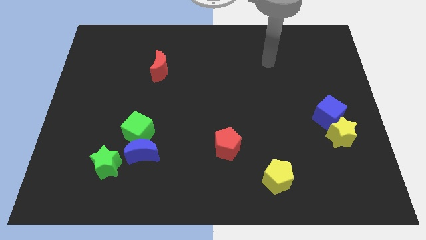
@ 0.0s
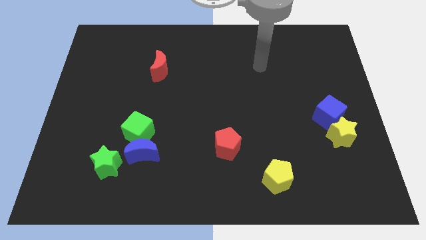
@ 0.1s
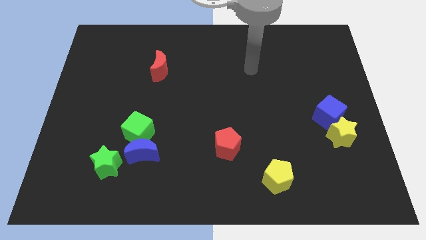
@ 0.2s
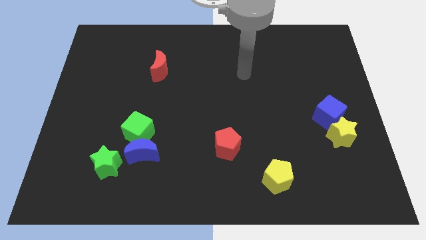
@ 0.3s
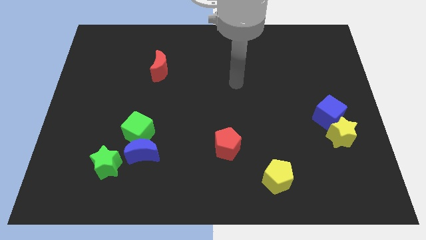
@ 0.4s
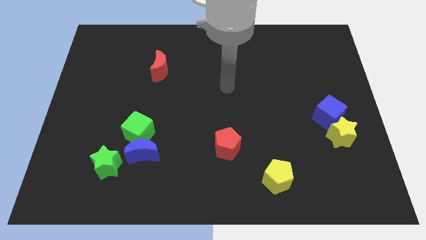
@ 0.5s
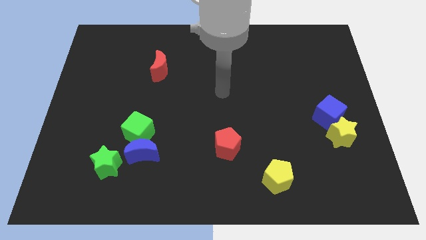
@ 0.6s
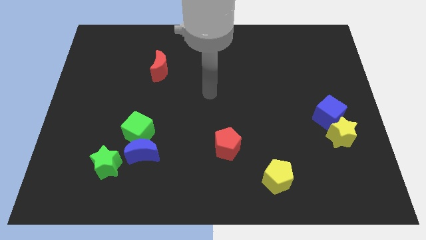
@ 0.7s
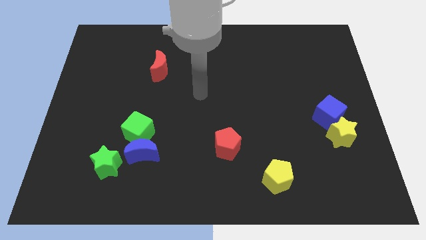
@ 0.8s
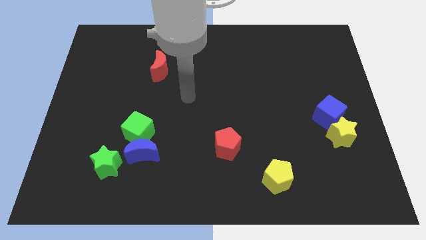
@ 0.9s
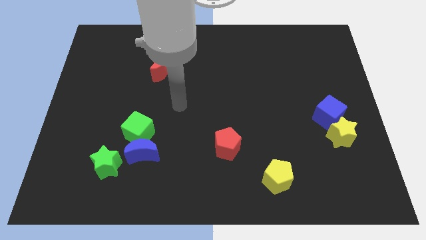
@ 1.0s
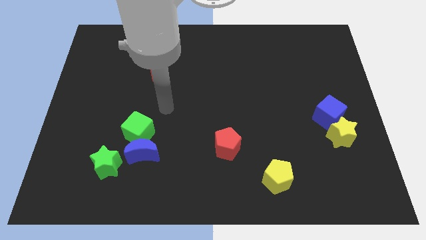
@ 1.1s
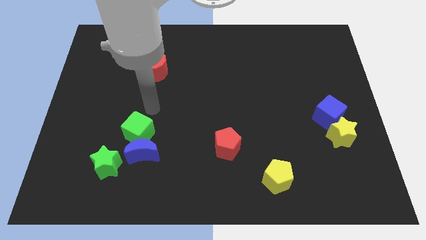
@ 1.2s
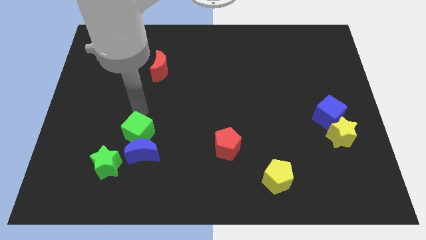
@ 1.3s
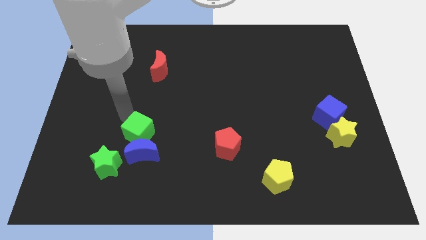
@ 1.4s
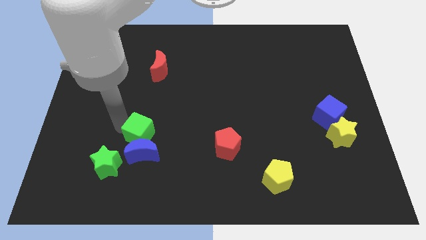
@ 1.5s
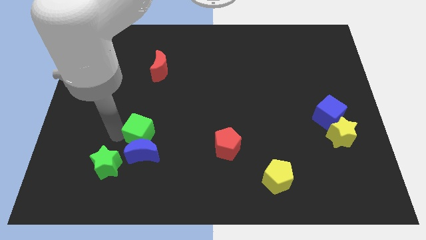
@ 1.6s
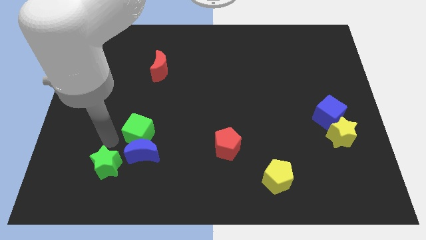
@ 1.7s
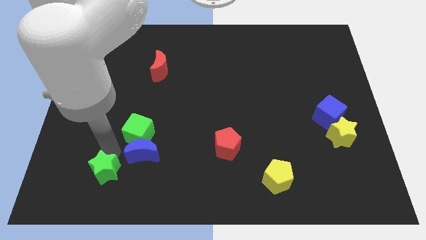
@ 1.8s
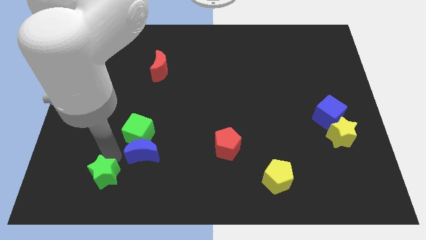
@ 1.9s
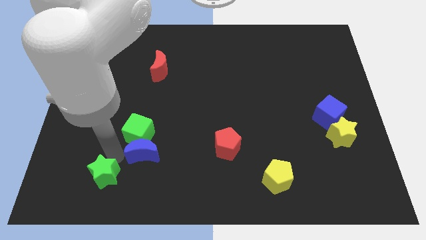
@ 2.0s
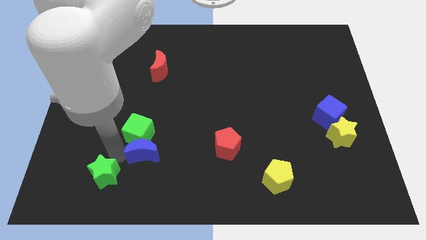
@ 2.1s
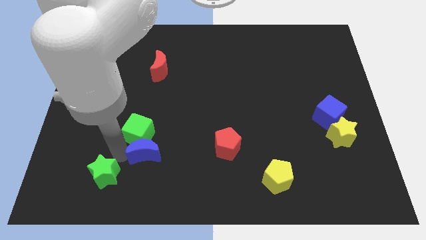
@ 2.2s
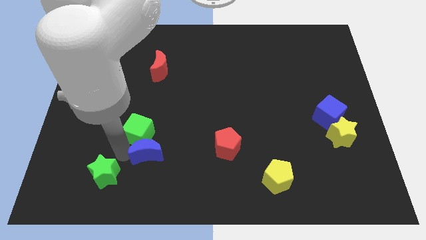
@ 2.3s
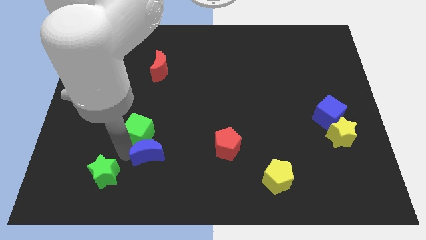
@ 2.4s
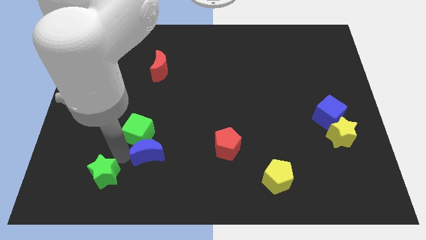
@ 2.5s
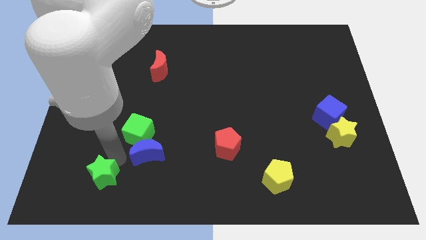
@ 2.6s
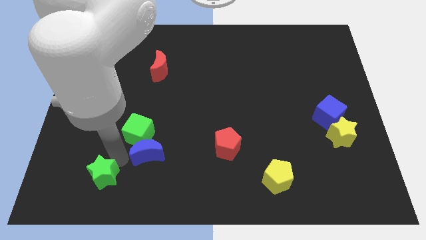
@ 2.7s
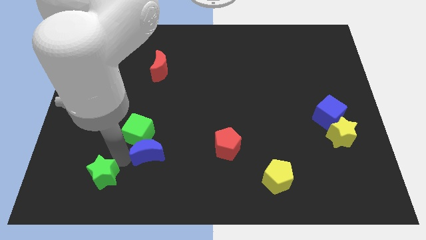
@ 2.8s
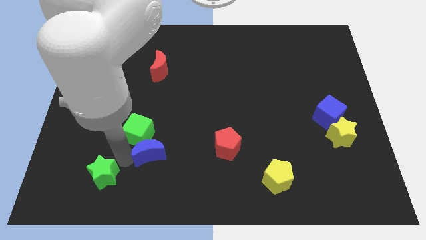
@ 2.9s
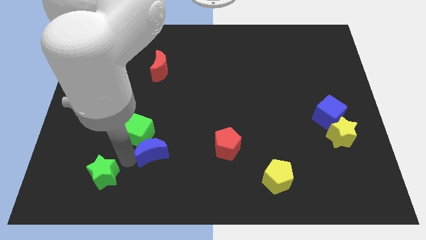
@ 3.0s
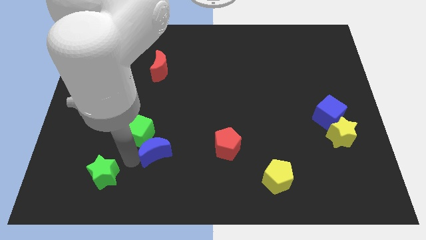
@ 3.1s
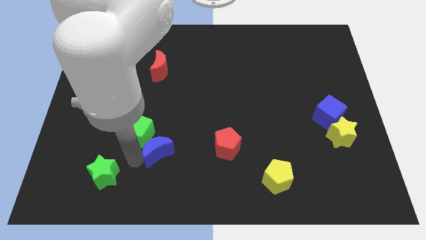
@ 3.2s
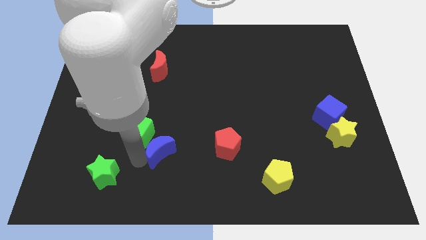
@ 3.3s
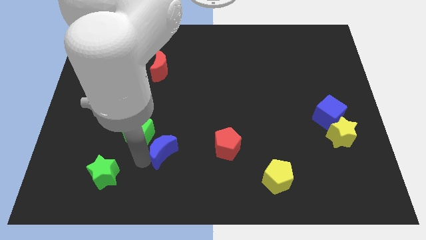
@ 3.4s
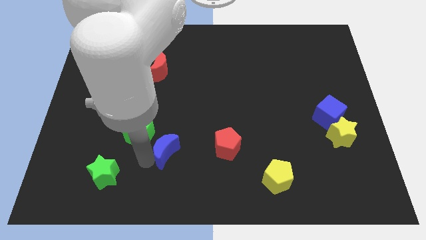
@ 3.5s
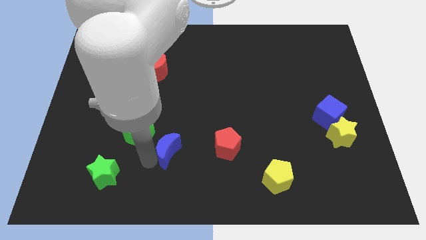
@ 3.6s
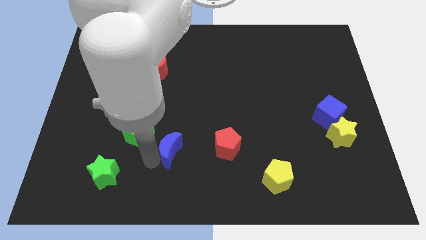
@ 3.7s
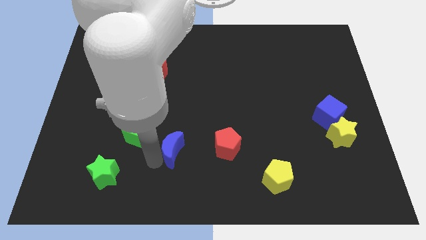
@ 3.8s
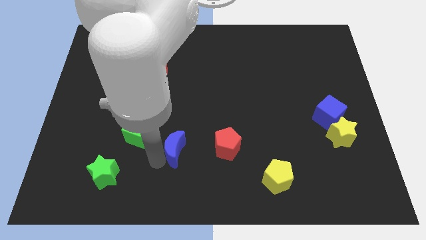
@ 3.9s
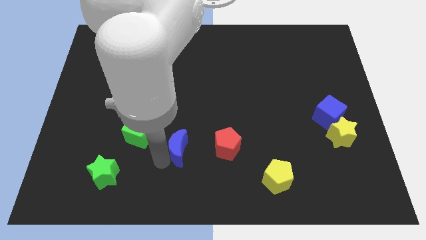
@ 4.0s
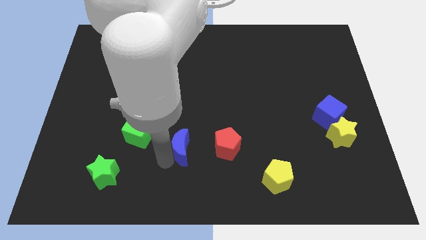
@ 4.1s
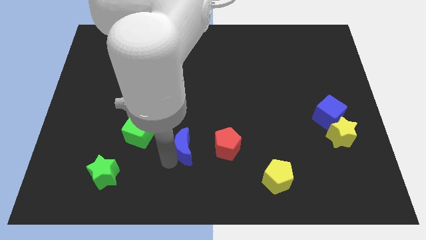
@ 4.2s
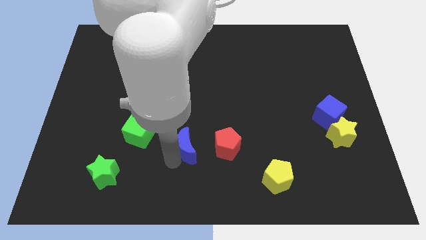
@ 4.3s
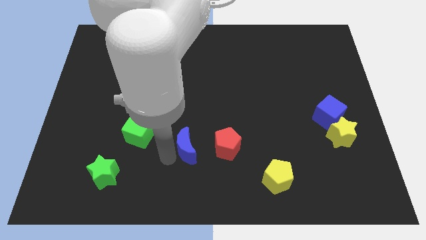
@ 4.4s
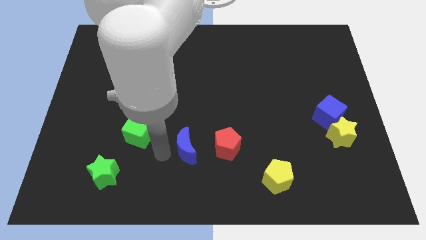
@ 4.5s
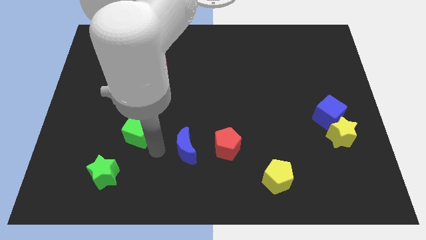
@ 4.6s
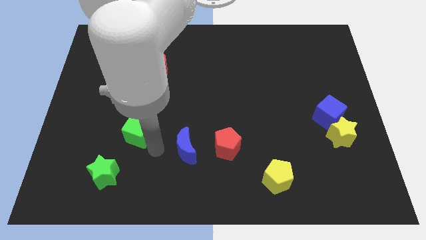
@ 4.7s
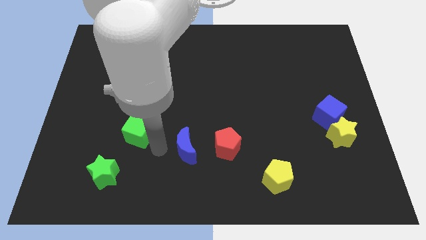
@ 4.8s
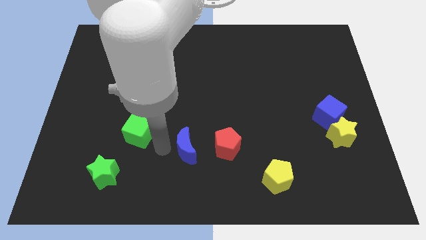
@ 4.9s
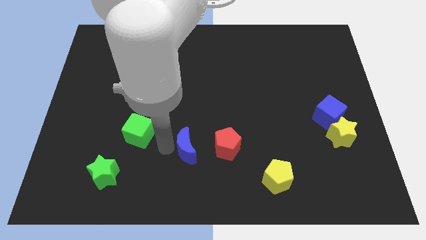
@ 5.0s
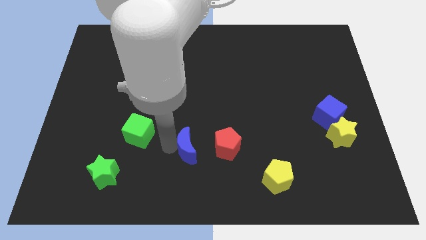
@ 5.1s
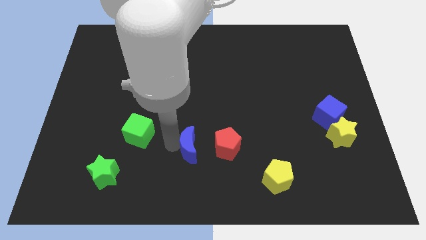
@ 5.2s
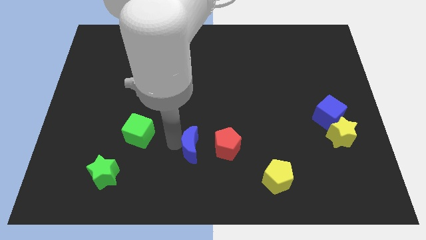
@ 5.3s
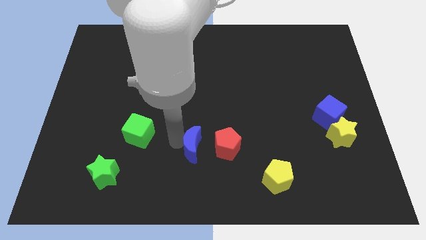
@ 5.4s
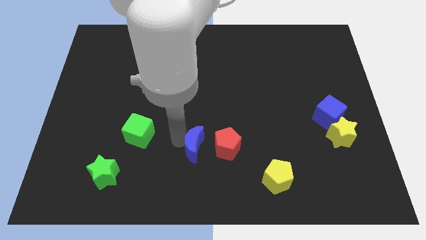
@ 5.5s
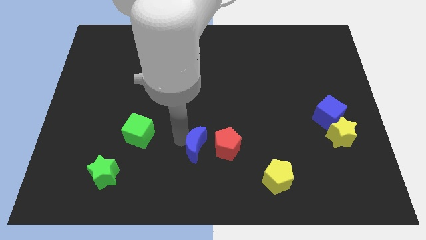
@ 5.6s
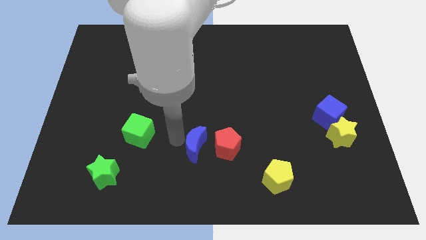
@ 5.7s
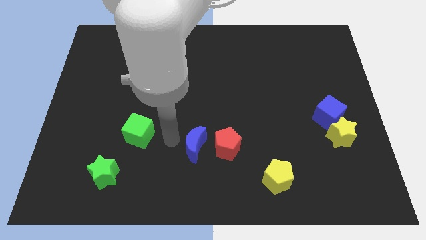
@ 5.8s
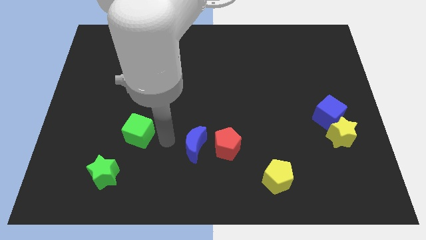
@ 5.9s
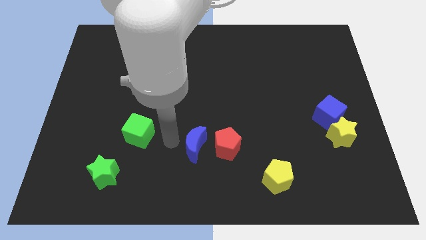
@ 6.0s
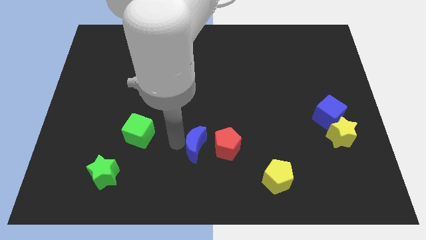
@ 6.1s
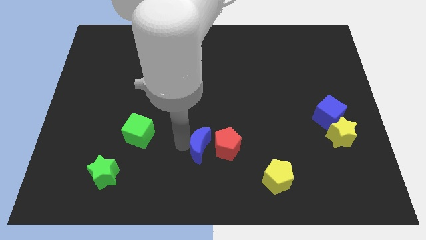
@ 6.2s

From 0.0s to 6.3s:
slide the blue moon close to the red pentagon
